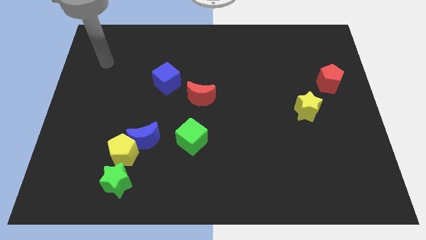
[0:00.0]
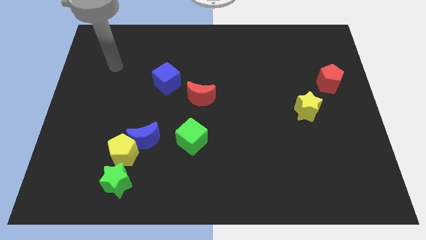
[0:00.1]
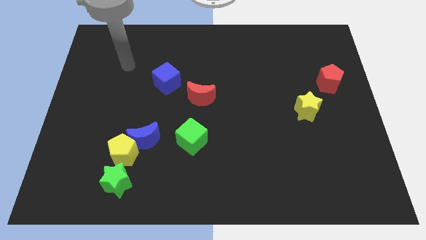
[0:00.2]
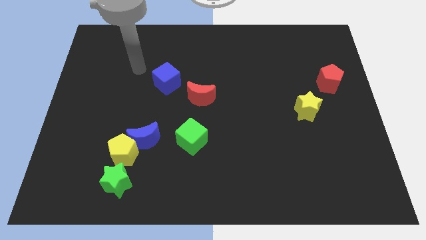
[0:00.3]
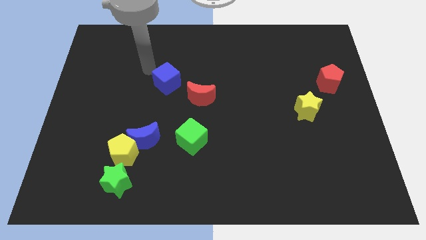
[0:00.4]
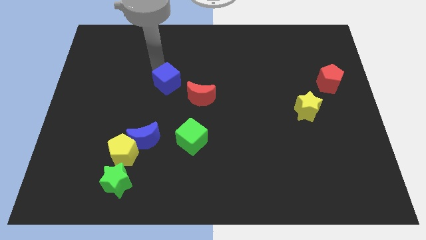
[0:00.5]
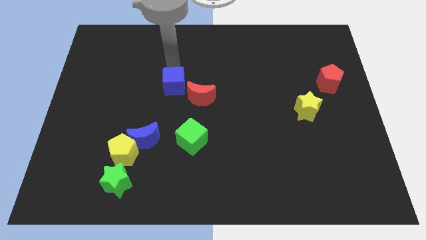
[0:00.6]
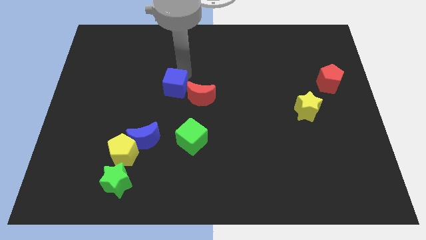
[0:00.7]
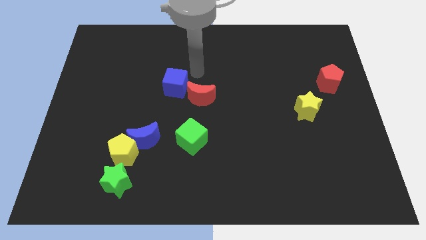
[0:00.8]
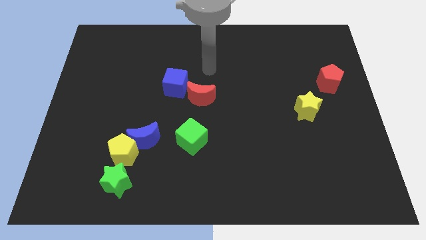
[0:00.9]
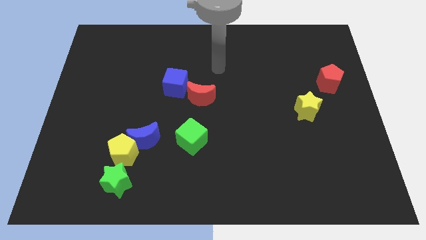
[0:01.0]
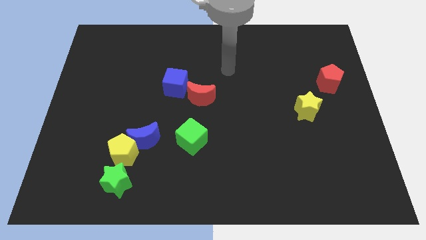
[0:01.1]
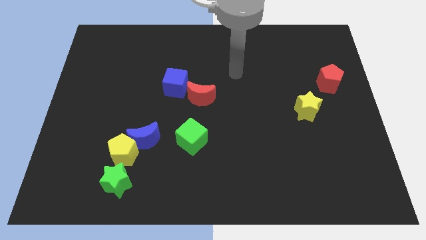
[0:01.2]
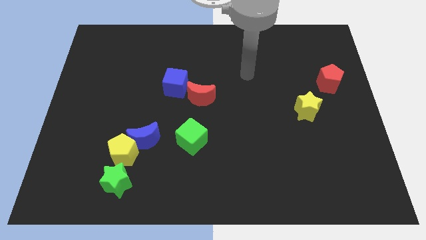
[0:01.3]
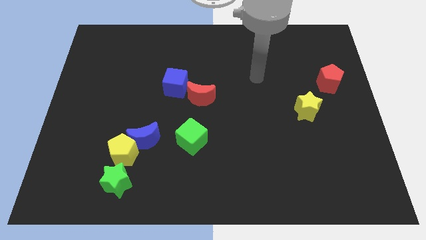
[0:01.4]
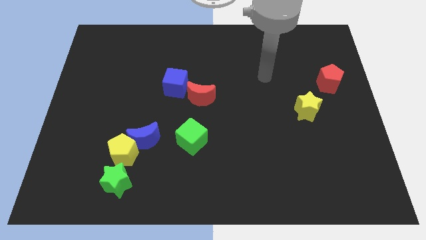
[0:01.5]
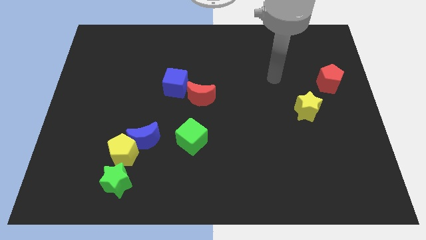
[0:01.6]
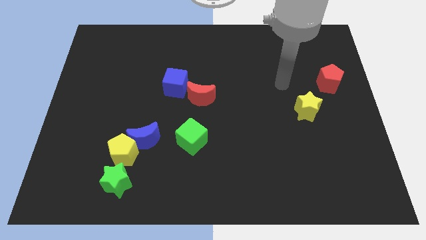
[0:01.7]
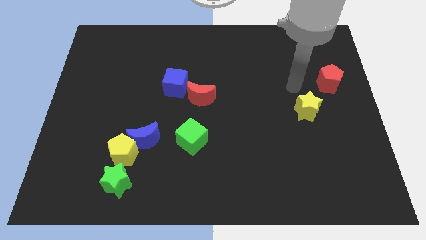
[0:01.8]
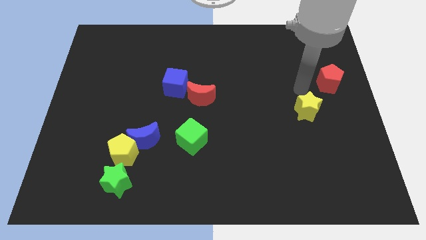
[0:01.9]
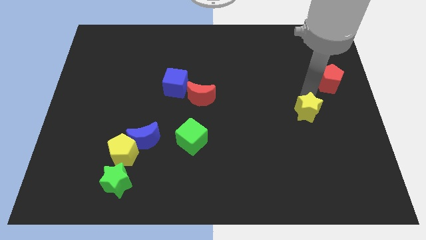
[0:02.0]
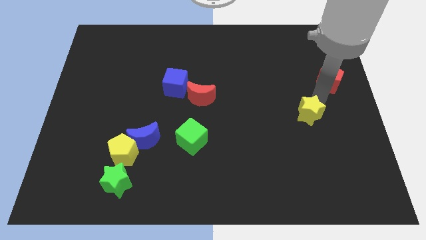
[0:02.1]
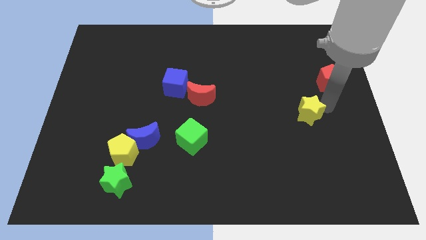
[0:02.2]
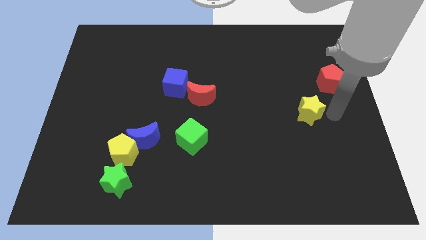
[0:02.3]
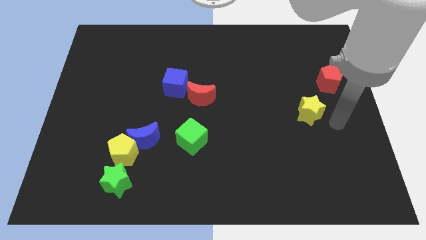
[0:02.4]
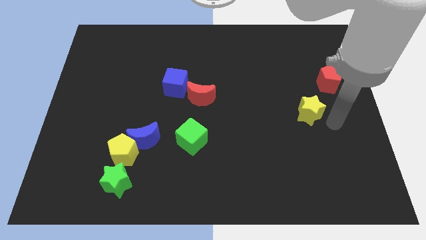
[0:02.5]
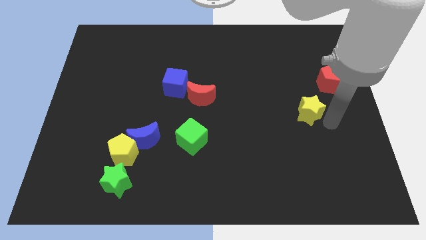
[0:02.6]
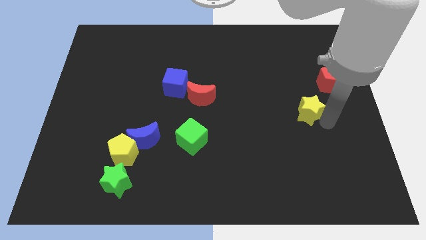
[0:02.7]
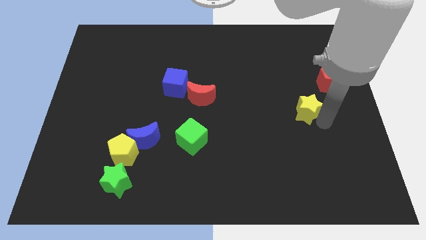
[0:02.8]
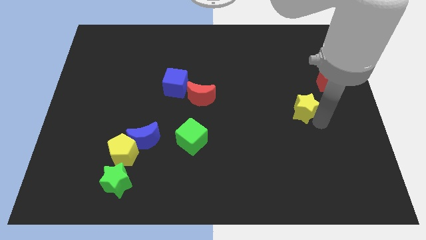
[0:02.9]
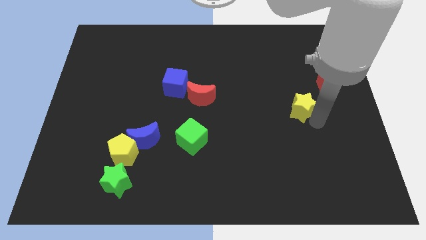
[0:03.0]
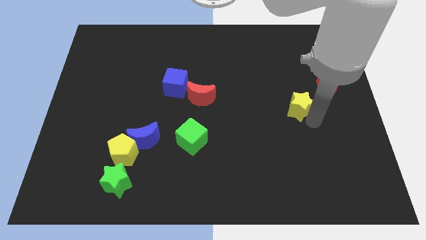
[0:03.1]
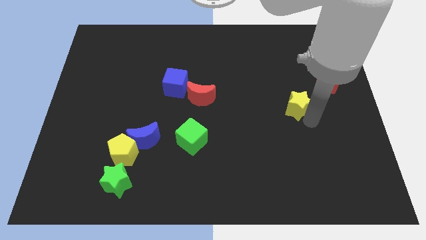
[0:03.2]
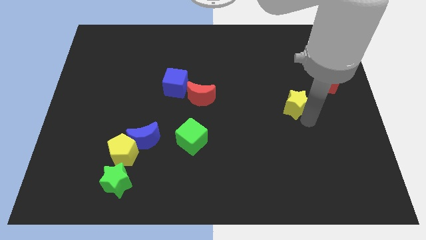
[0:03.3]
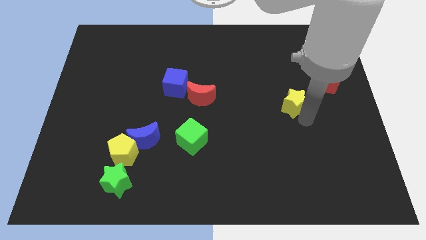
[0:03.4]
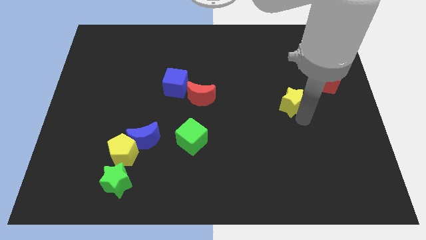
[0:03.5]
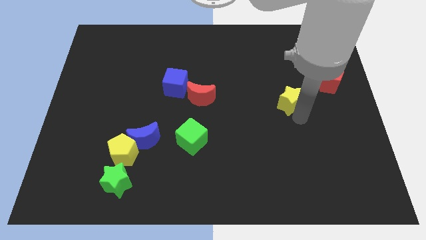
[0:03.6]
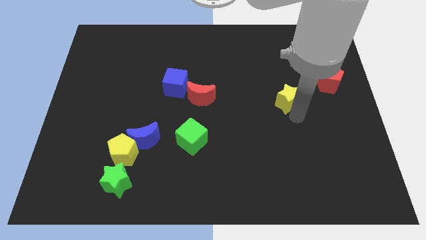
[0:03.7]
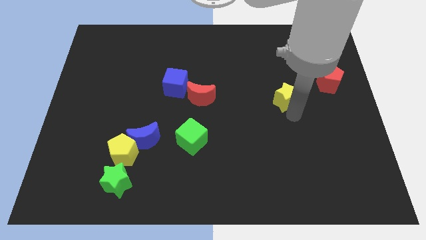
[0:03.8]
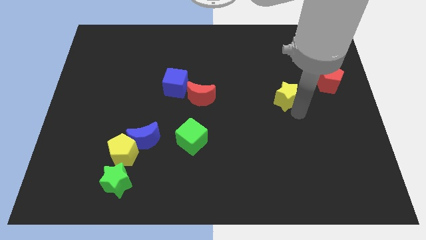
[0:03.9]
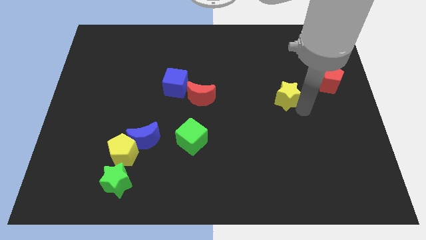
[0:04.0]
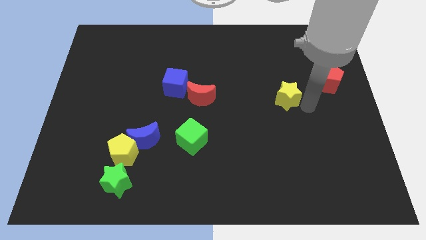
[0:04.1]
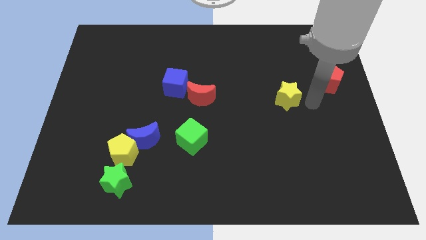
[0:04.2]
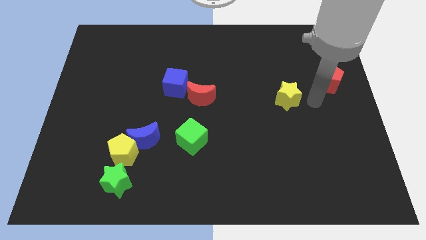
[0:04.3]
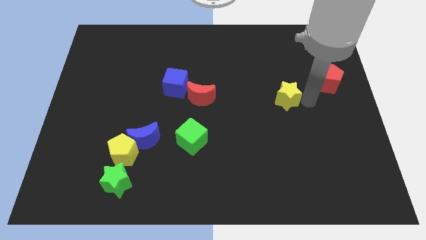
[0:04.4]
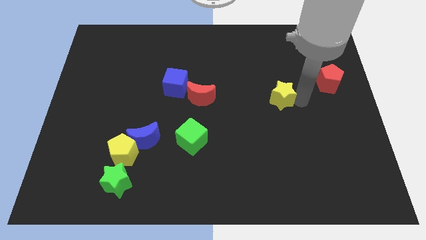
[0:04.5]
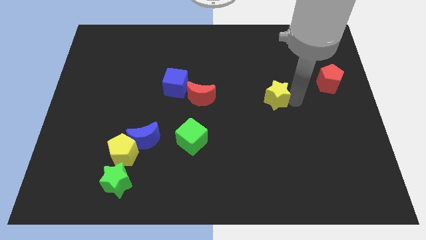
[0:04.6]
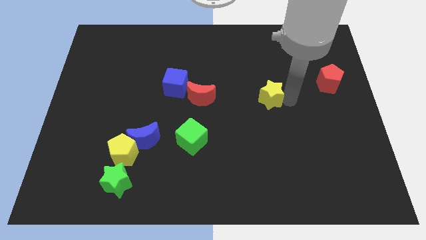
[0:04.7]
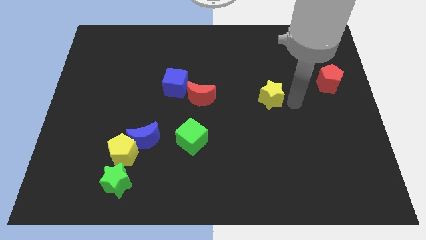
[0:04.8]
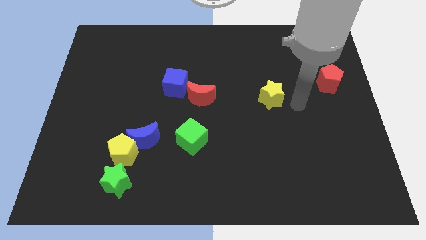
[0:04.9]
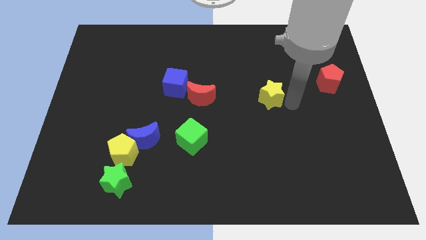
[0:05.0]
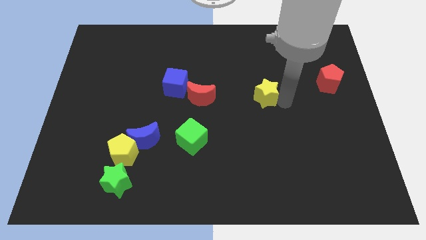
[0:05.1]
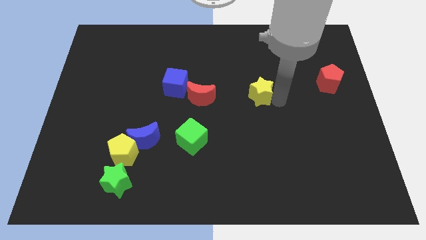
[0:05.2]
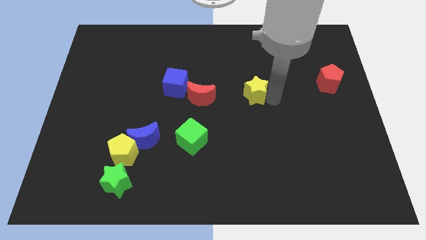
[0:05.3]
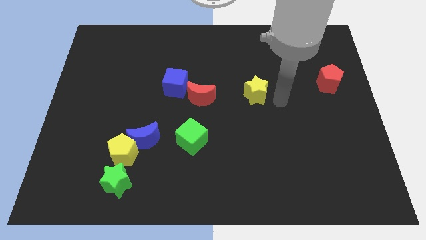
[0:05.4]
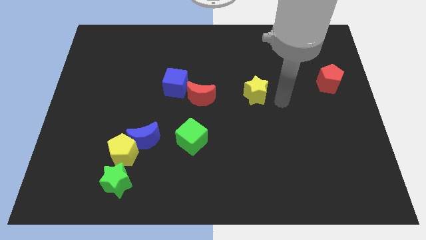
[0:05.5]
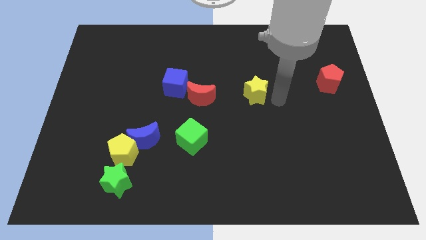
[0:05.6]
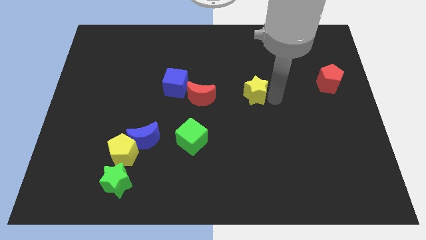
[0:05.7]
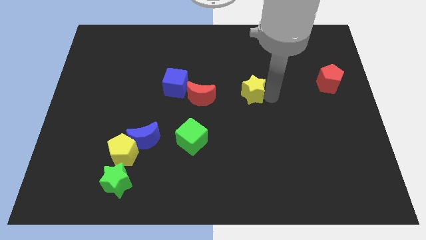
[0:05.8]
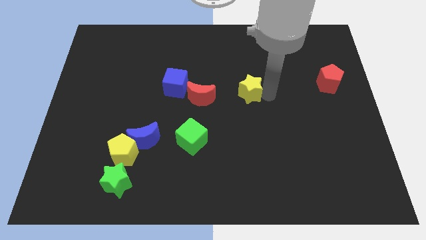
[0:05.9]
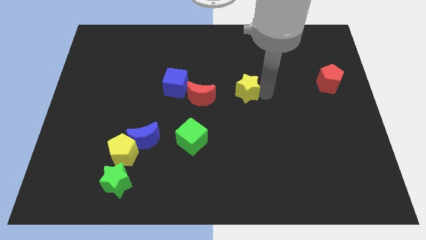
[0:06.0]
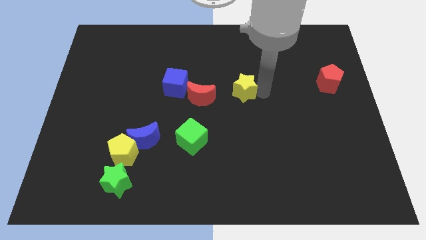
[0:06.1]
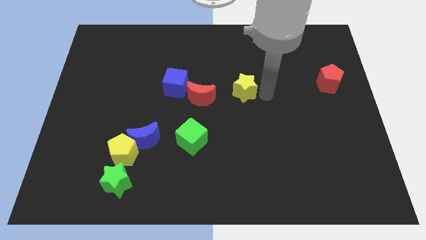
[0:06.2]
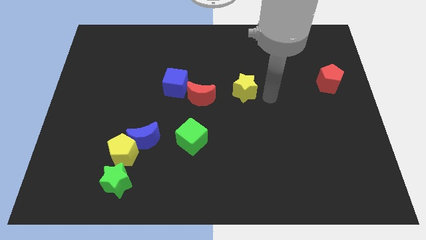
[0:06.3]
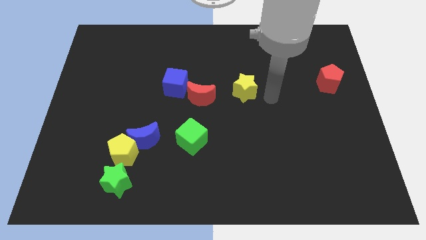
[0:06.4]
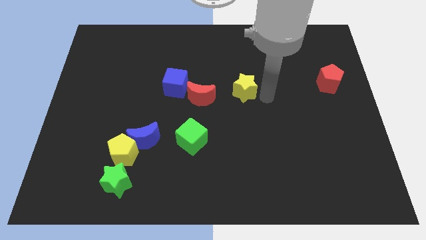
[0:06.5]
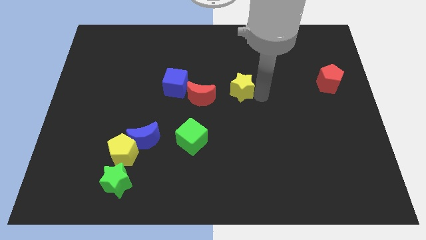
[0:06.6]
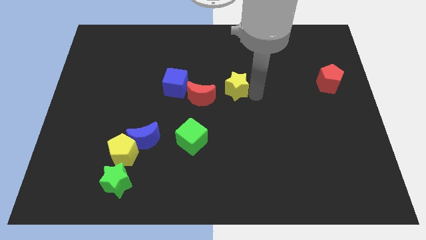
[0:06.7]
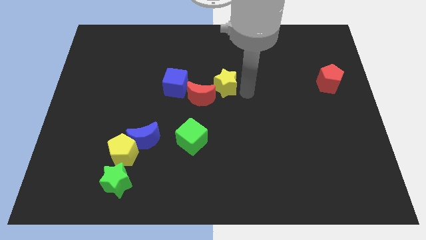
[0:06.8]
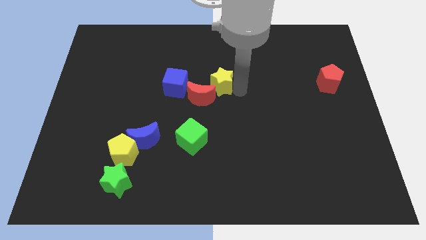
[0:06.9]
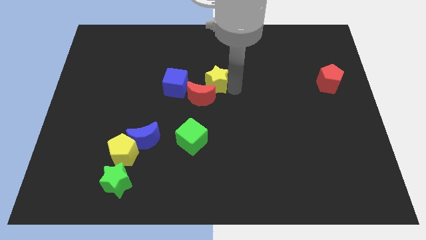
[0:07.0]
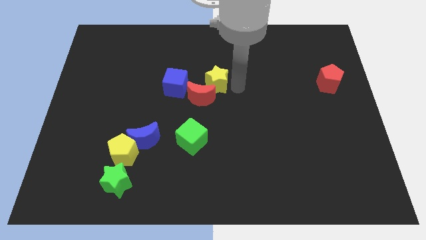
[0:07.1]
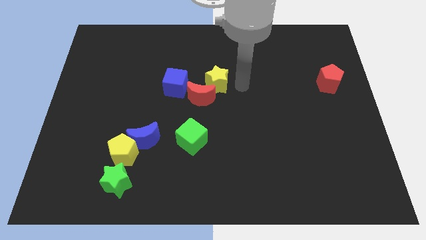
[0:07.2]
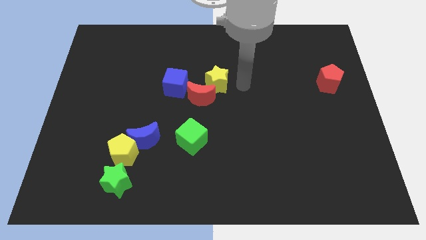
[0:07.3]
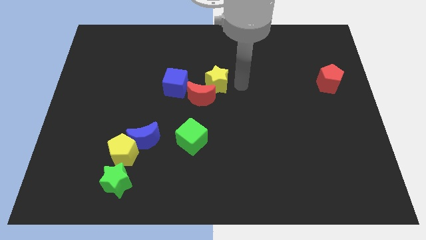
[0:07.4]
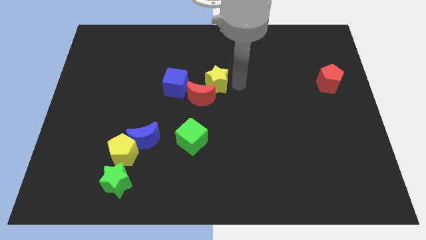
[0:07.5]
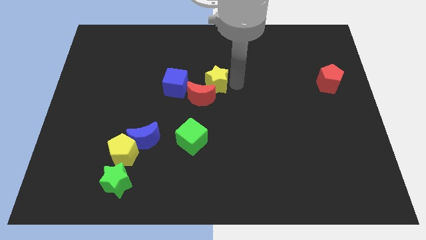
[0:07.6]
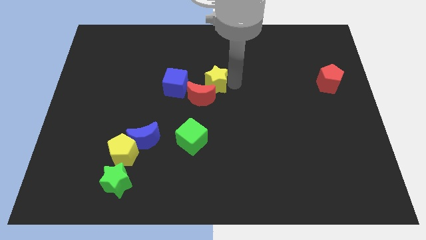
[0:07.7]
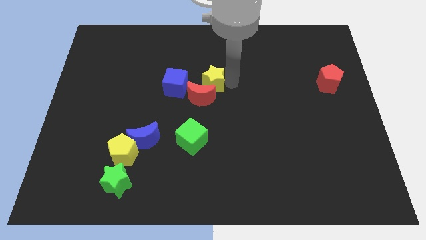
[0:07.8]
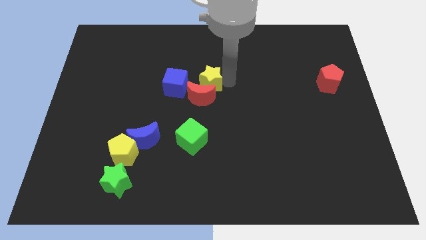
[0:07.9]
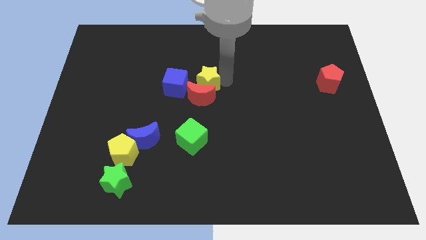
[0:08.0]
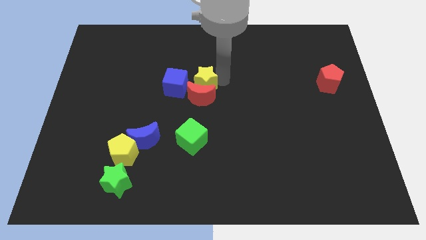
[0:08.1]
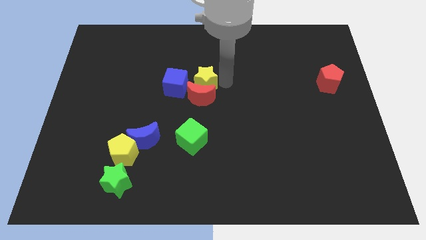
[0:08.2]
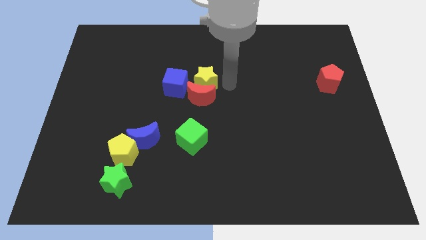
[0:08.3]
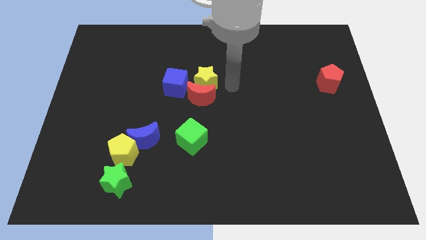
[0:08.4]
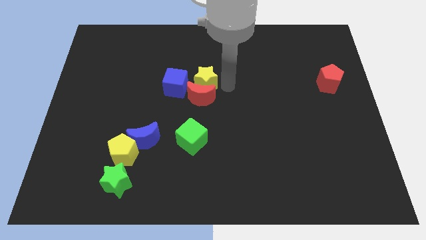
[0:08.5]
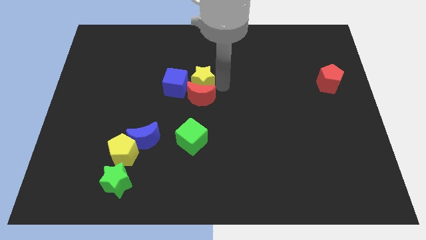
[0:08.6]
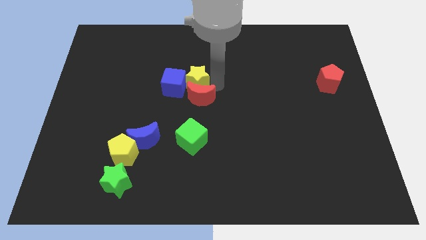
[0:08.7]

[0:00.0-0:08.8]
put the yellow star towards the blue cube
